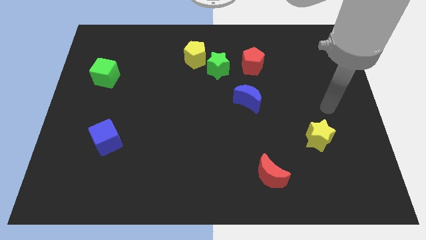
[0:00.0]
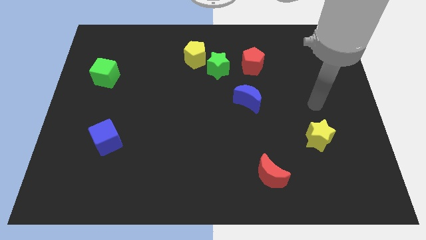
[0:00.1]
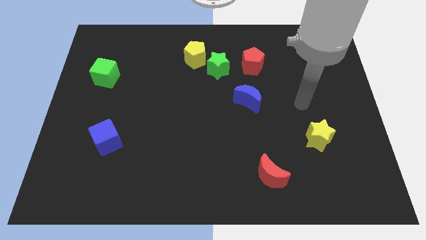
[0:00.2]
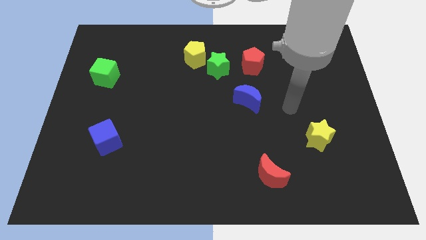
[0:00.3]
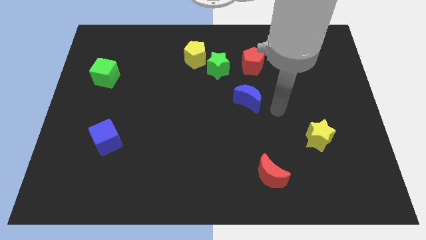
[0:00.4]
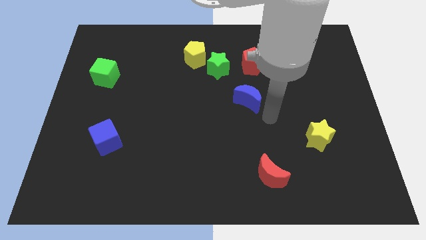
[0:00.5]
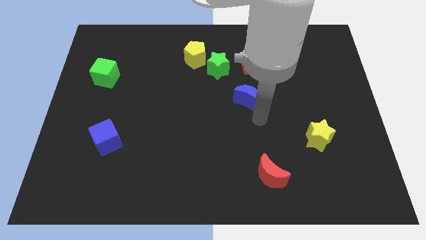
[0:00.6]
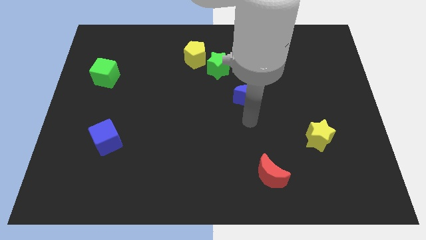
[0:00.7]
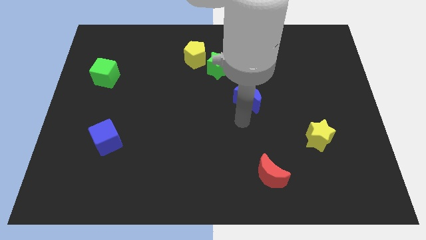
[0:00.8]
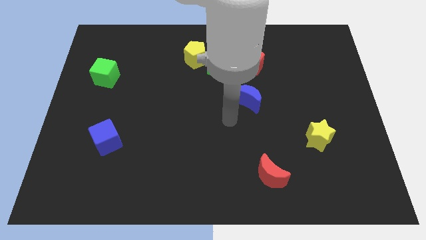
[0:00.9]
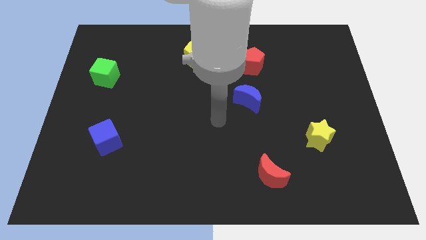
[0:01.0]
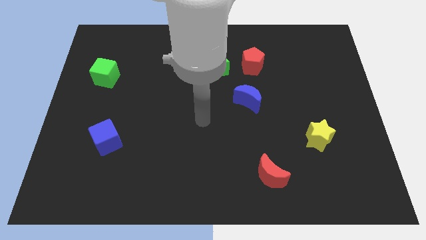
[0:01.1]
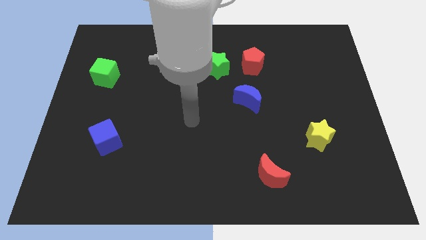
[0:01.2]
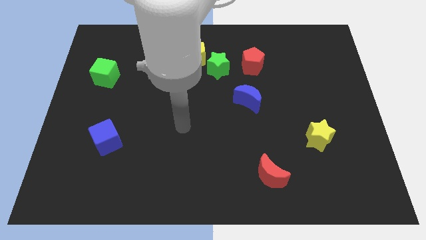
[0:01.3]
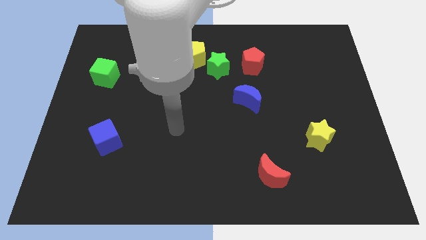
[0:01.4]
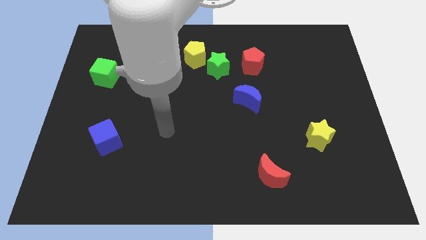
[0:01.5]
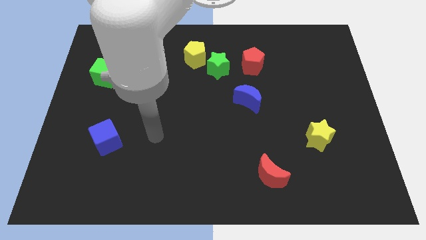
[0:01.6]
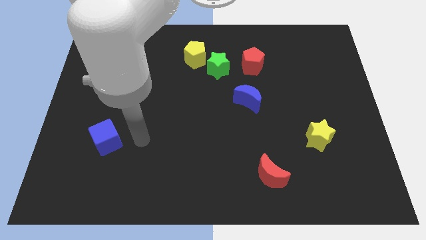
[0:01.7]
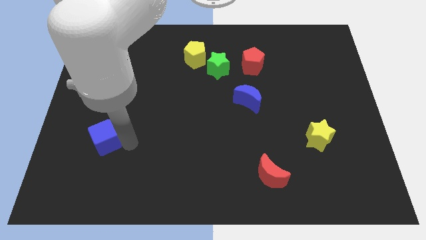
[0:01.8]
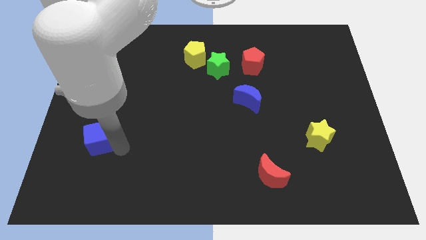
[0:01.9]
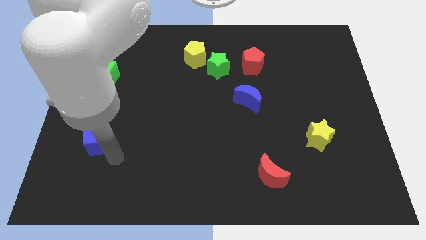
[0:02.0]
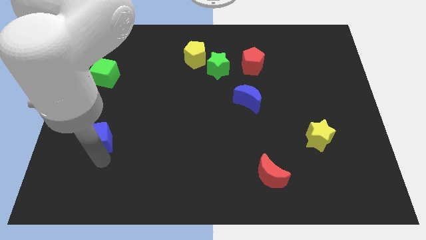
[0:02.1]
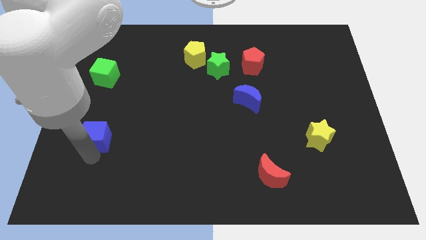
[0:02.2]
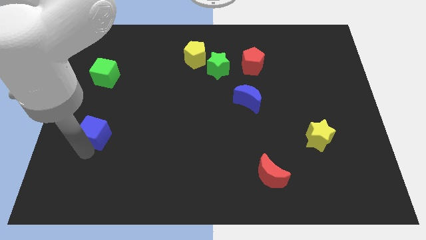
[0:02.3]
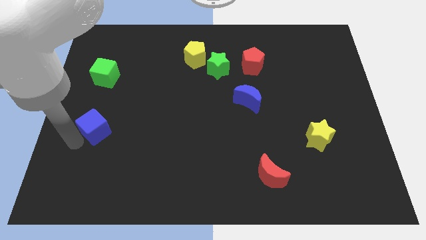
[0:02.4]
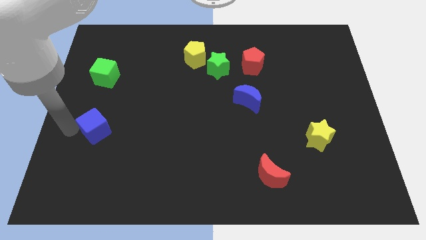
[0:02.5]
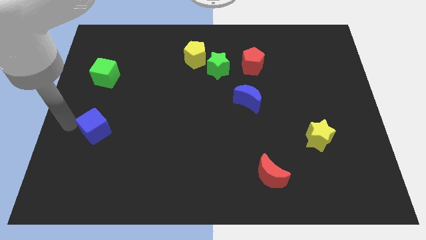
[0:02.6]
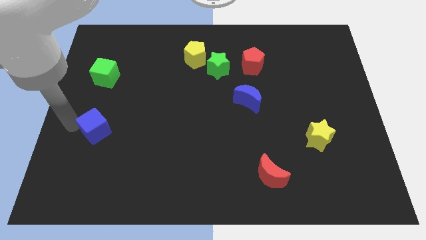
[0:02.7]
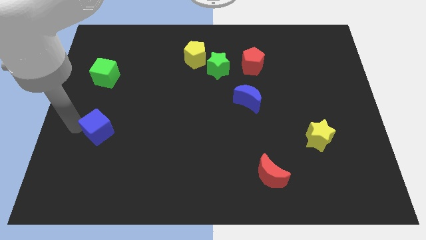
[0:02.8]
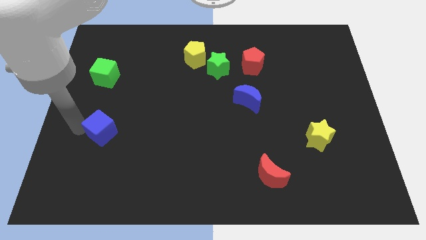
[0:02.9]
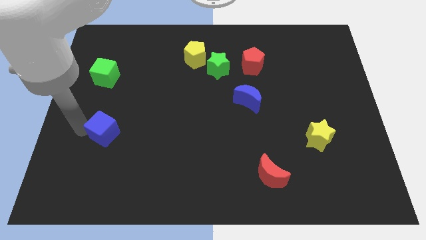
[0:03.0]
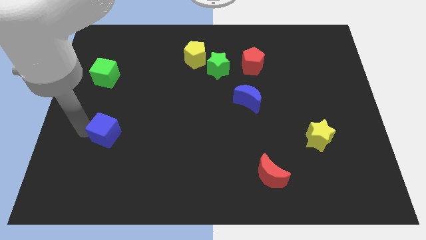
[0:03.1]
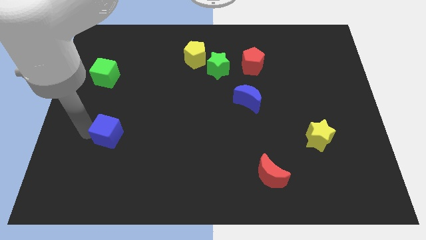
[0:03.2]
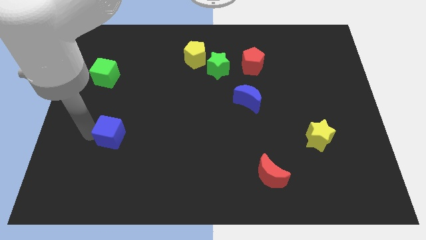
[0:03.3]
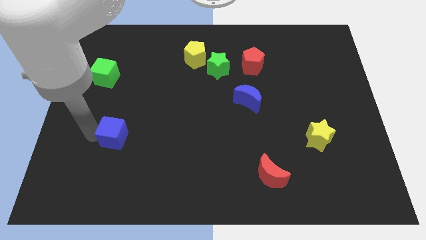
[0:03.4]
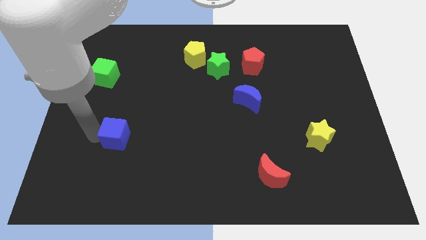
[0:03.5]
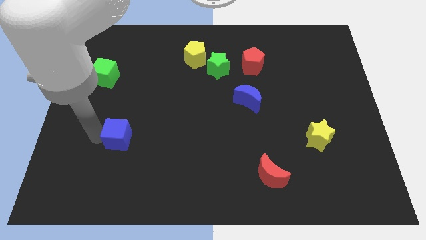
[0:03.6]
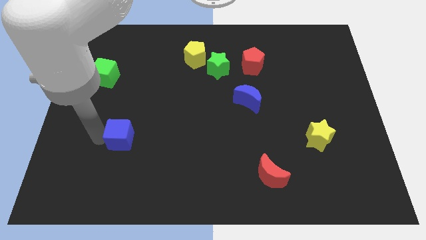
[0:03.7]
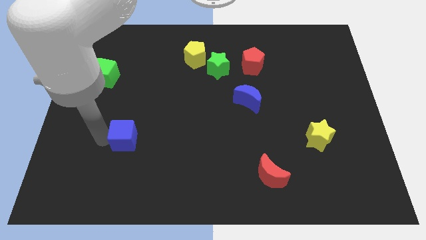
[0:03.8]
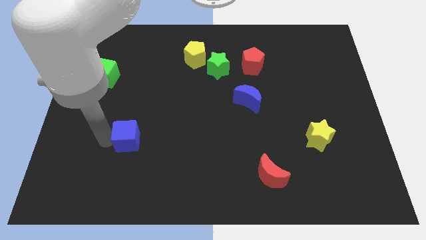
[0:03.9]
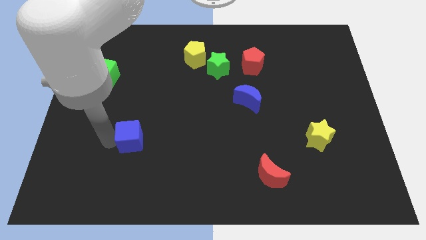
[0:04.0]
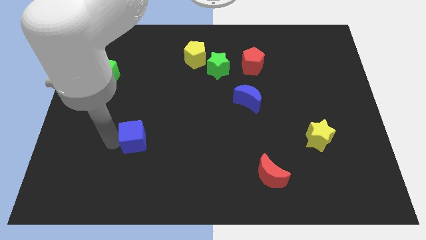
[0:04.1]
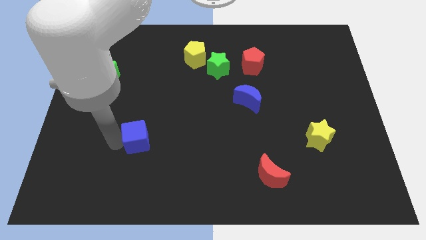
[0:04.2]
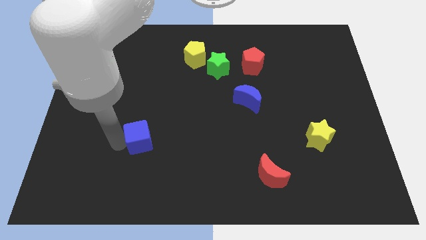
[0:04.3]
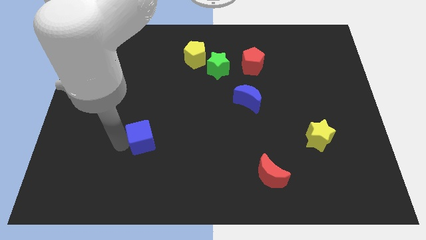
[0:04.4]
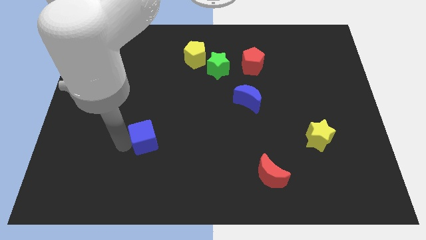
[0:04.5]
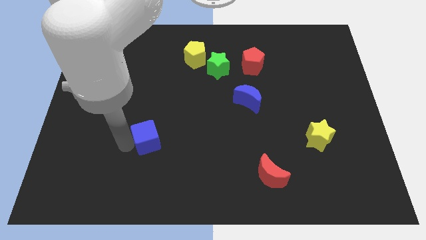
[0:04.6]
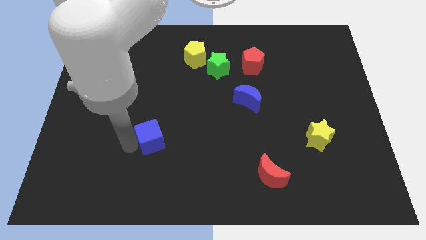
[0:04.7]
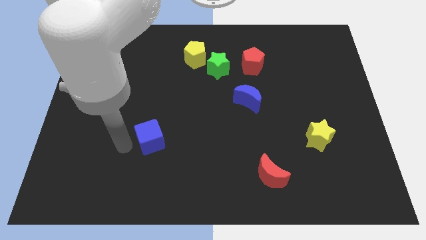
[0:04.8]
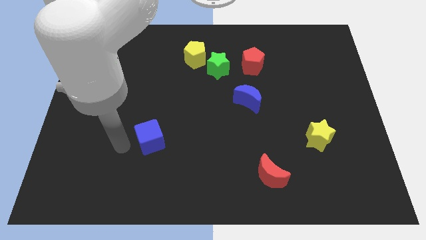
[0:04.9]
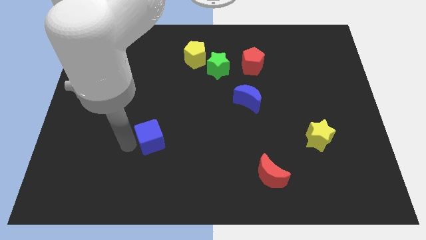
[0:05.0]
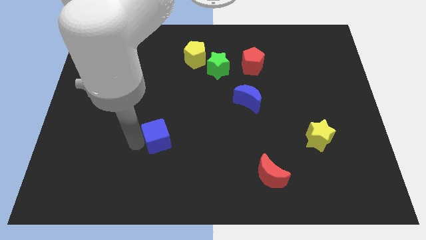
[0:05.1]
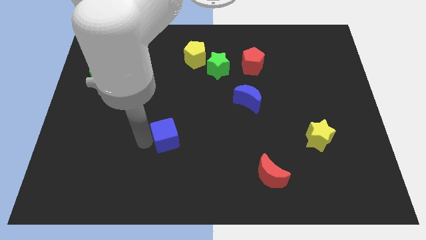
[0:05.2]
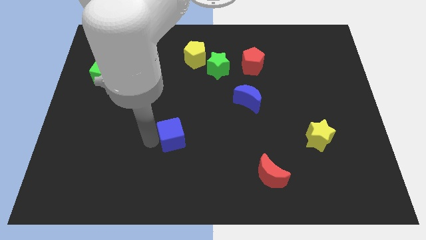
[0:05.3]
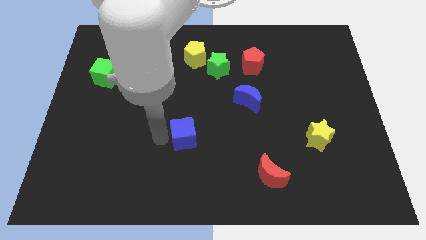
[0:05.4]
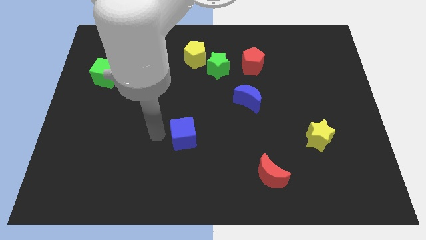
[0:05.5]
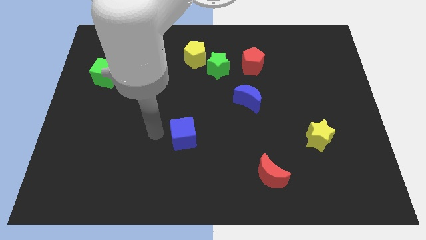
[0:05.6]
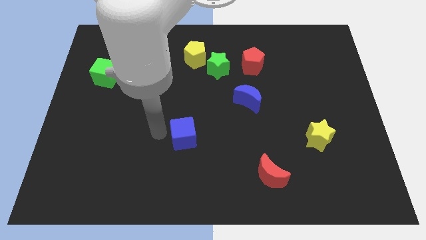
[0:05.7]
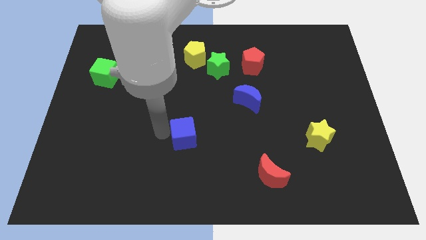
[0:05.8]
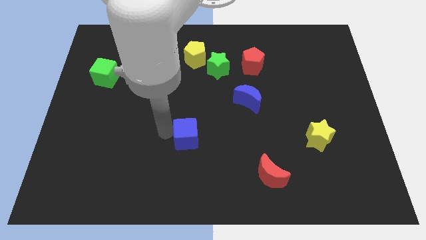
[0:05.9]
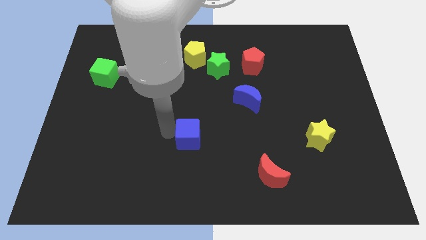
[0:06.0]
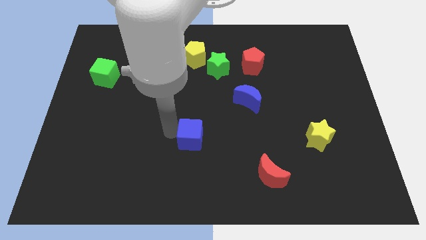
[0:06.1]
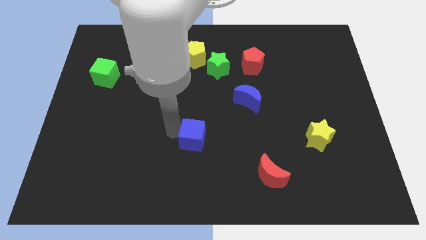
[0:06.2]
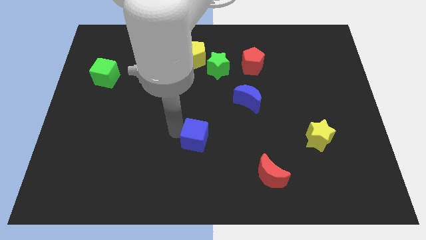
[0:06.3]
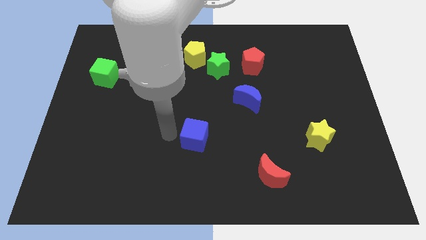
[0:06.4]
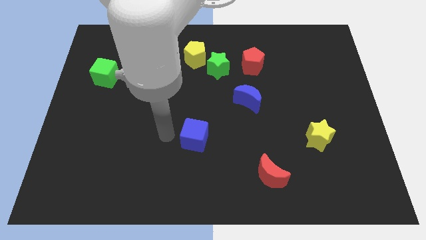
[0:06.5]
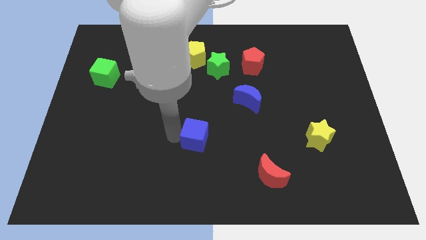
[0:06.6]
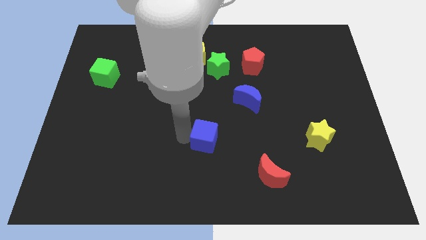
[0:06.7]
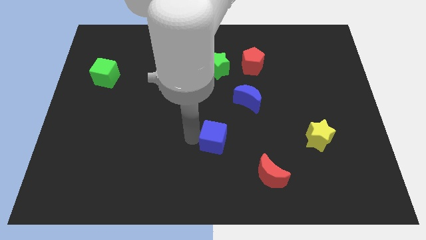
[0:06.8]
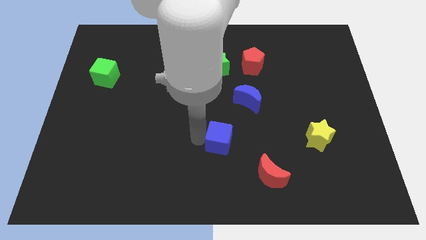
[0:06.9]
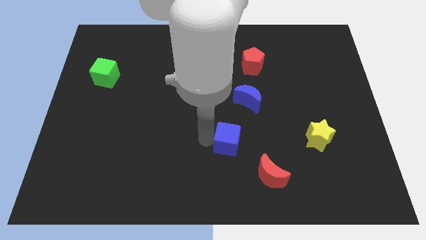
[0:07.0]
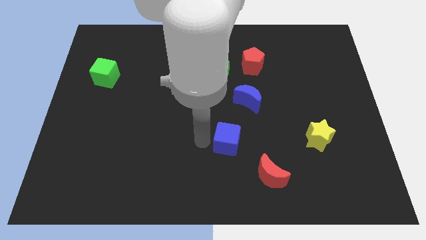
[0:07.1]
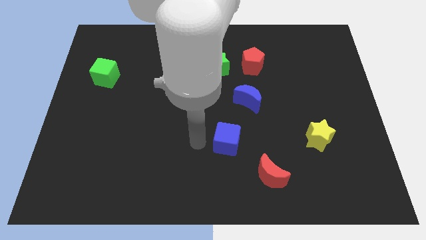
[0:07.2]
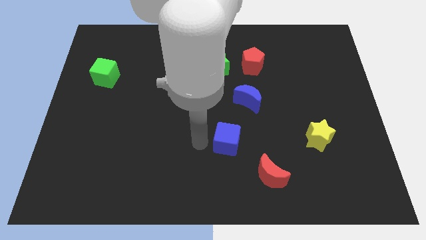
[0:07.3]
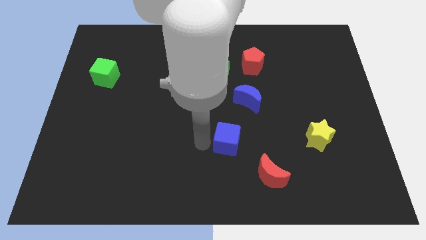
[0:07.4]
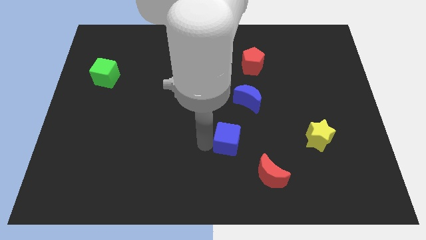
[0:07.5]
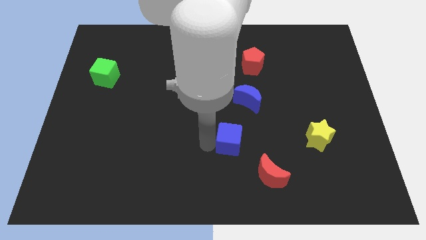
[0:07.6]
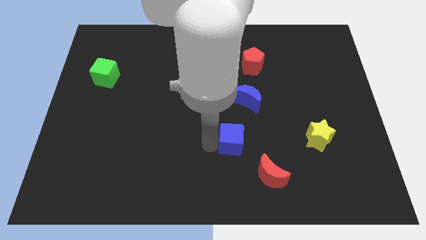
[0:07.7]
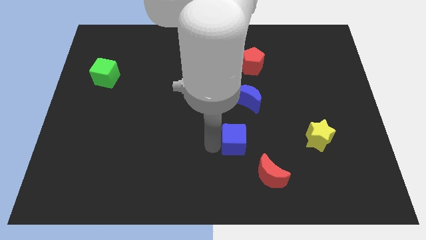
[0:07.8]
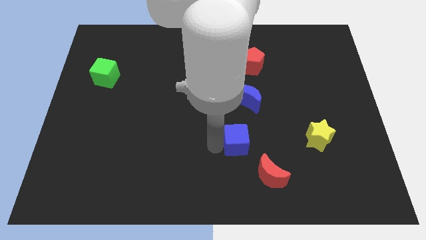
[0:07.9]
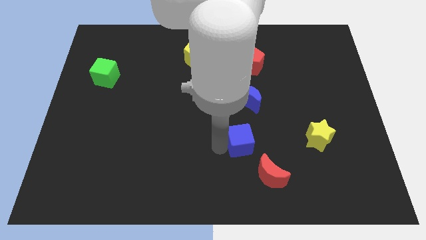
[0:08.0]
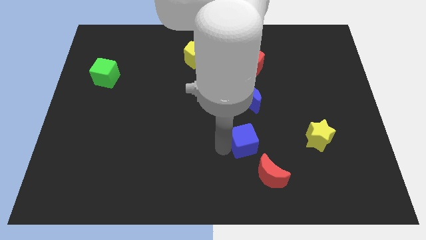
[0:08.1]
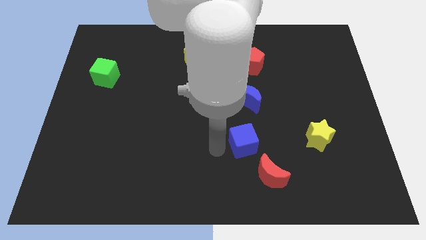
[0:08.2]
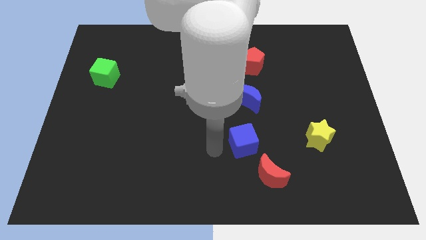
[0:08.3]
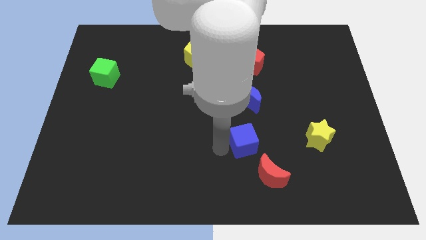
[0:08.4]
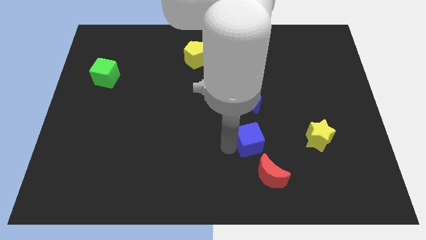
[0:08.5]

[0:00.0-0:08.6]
move the blue cube left of the yellow star
